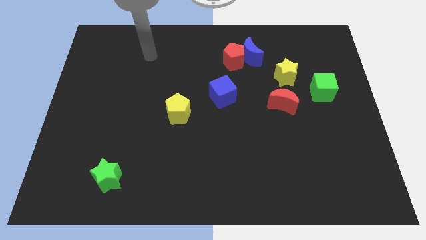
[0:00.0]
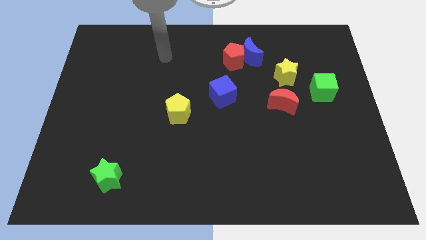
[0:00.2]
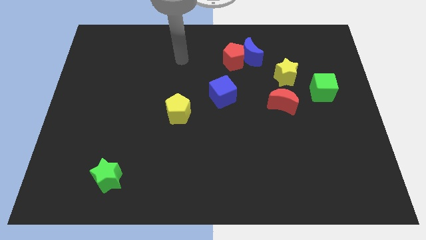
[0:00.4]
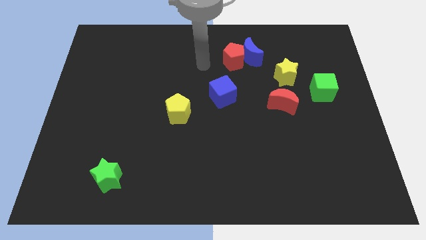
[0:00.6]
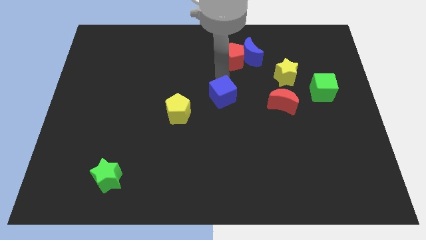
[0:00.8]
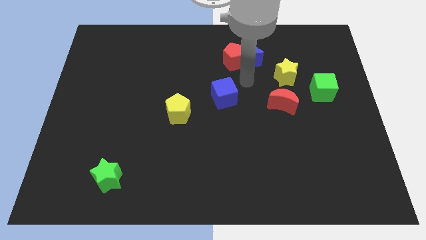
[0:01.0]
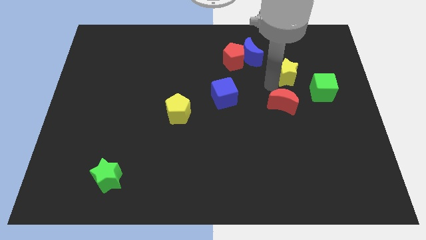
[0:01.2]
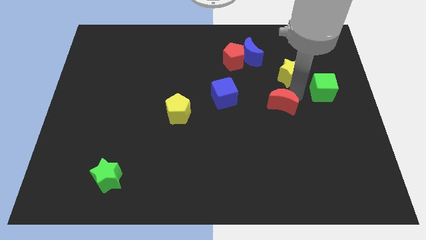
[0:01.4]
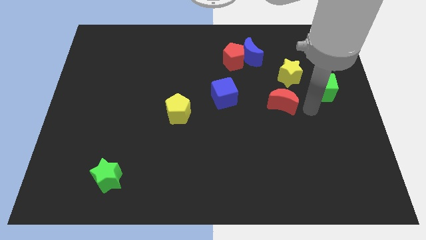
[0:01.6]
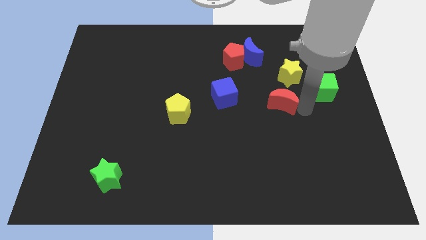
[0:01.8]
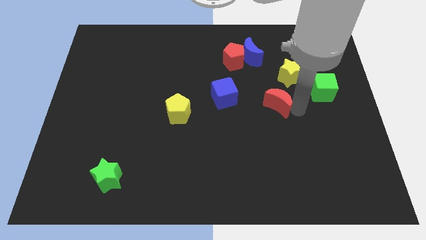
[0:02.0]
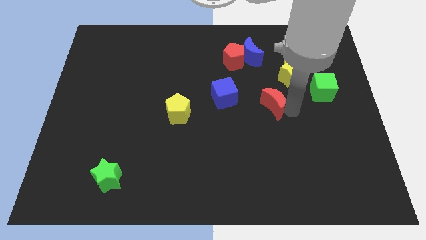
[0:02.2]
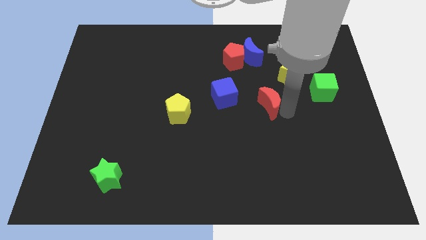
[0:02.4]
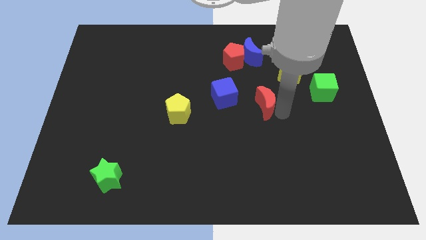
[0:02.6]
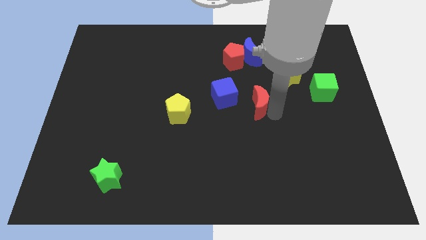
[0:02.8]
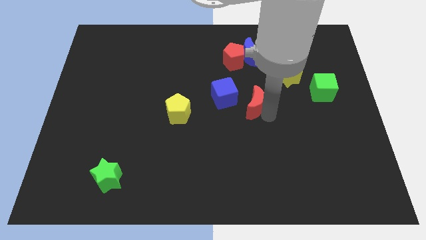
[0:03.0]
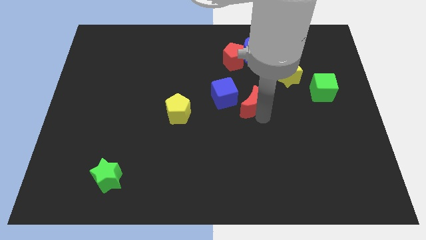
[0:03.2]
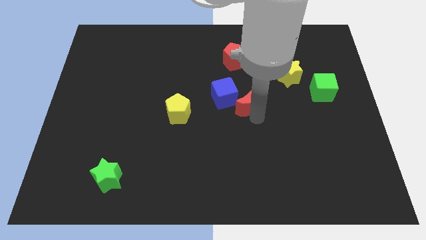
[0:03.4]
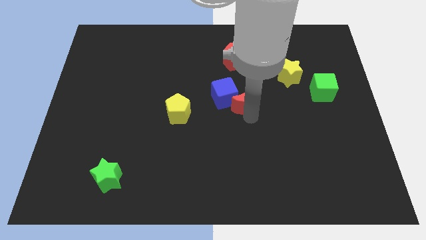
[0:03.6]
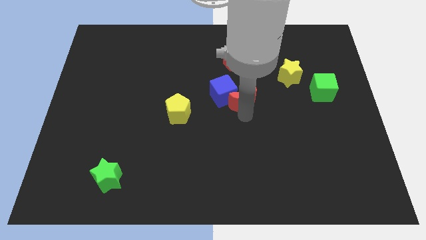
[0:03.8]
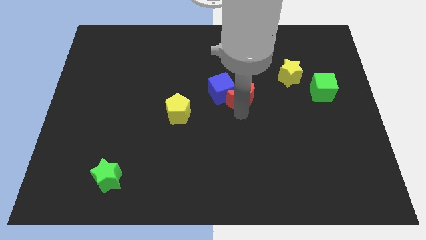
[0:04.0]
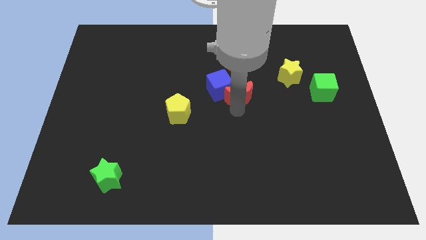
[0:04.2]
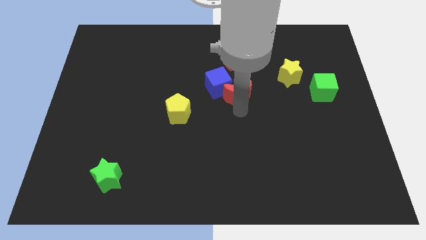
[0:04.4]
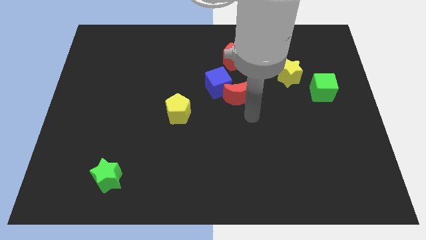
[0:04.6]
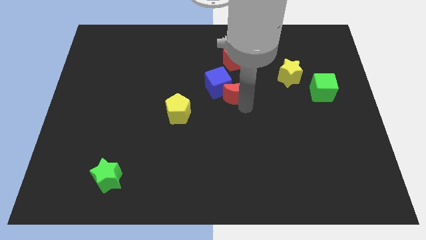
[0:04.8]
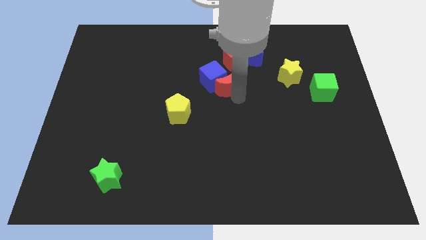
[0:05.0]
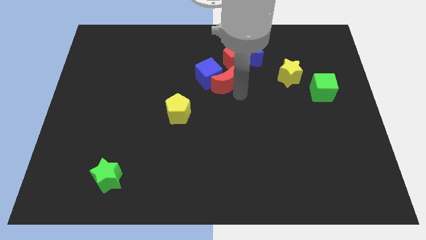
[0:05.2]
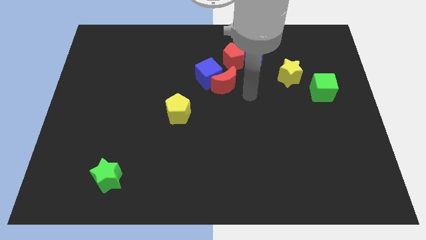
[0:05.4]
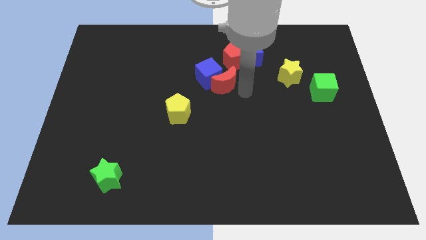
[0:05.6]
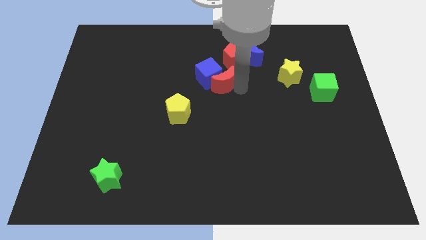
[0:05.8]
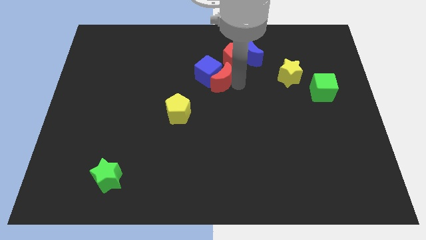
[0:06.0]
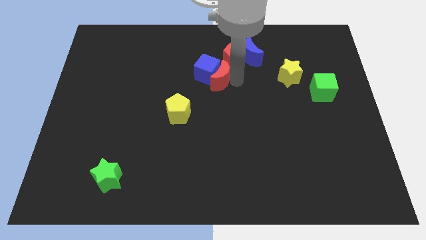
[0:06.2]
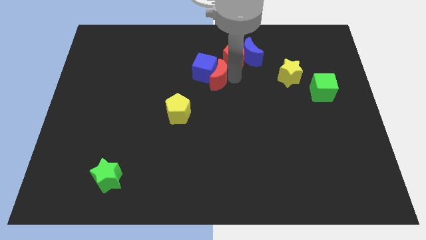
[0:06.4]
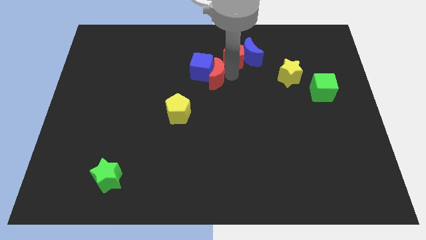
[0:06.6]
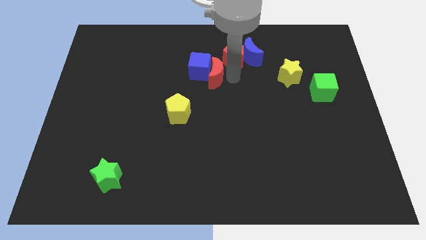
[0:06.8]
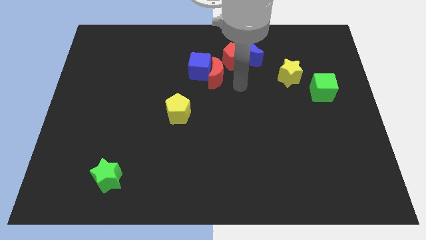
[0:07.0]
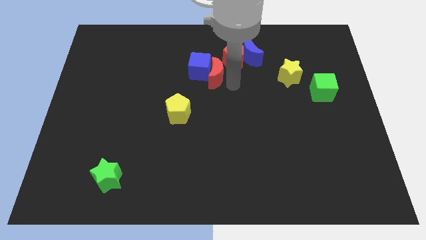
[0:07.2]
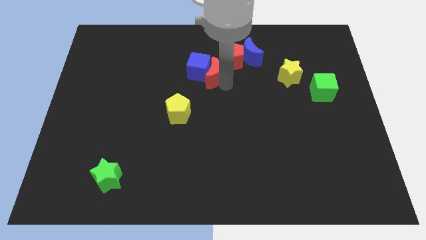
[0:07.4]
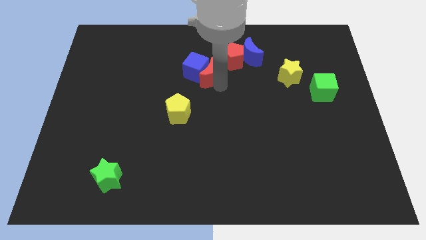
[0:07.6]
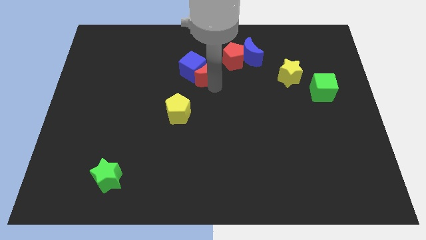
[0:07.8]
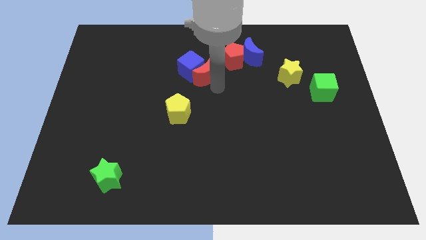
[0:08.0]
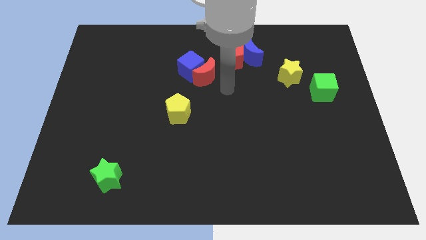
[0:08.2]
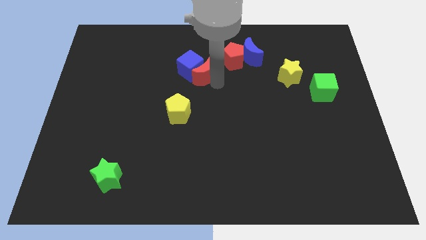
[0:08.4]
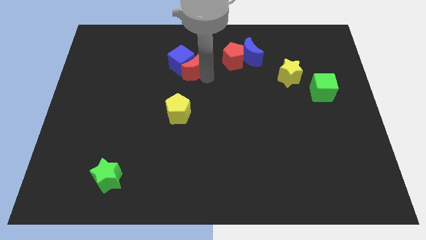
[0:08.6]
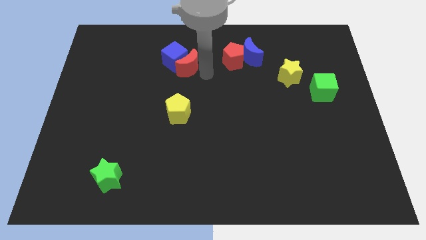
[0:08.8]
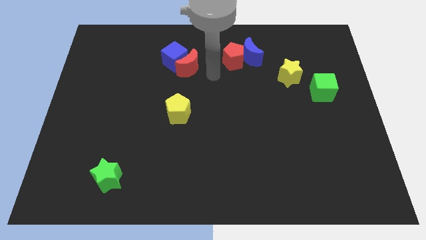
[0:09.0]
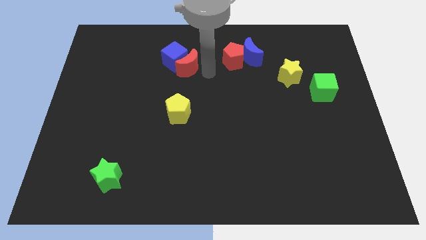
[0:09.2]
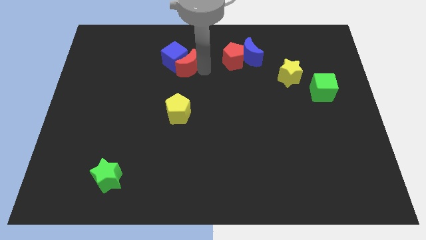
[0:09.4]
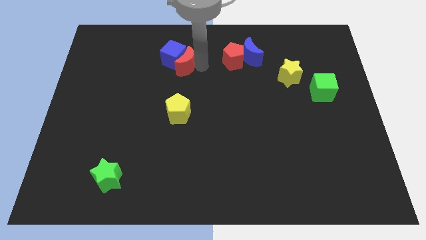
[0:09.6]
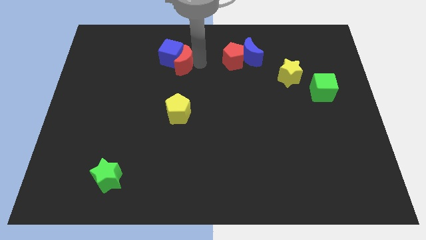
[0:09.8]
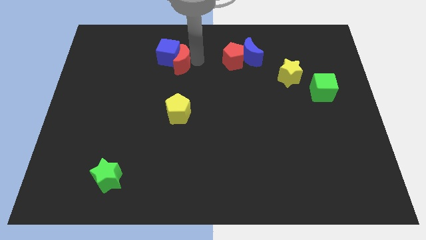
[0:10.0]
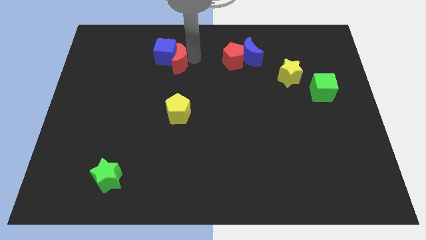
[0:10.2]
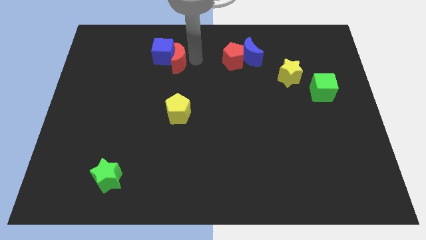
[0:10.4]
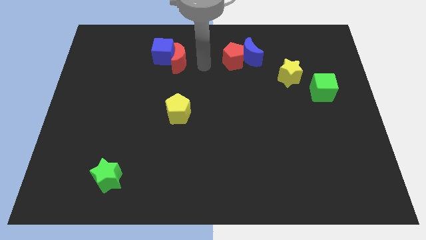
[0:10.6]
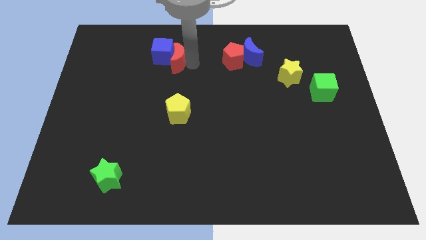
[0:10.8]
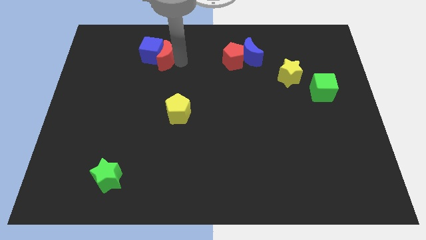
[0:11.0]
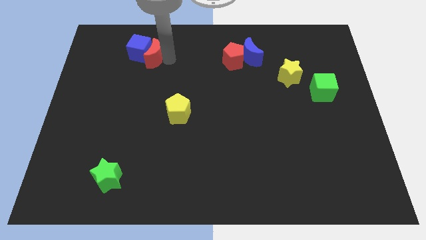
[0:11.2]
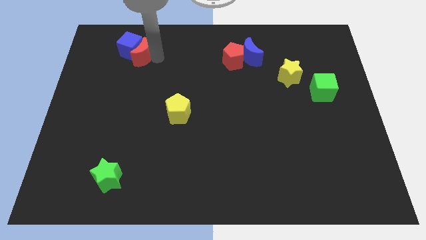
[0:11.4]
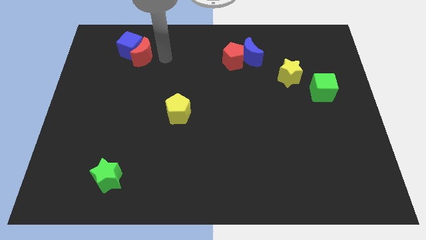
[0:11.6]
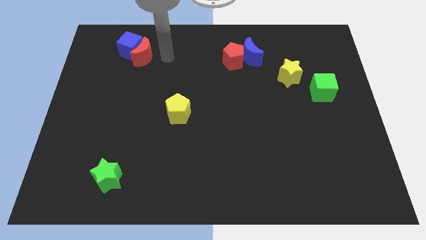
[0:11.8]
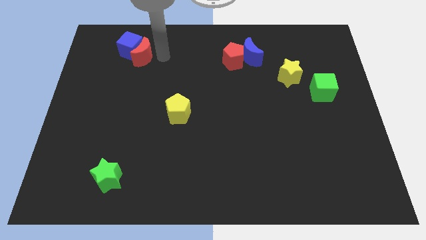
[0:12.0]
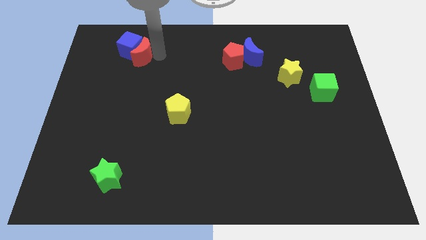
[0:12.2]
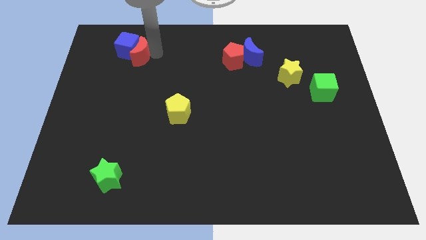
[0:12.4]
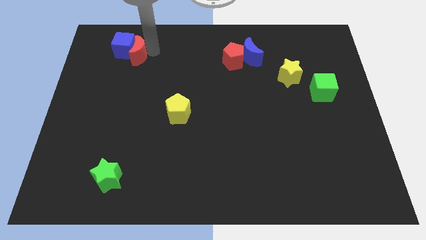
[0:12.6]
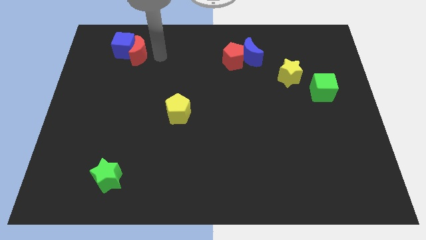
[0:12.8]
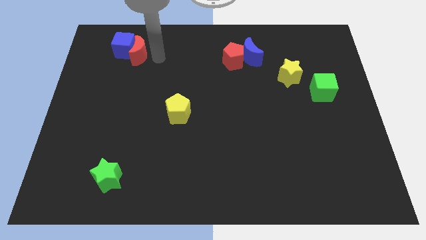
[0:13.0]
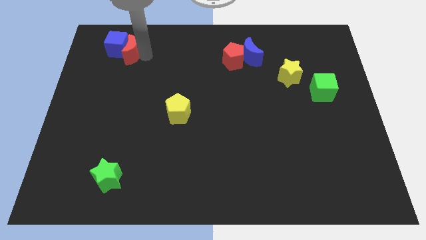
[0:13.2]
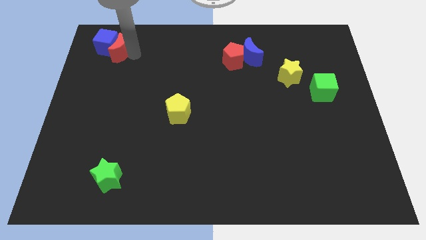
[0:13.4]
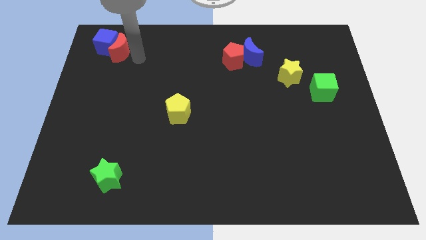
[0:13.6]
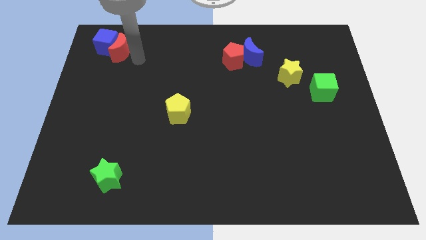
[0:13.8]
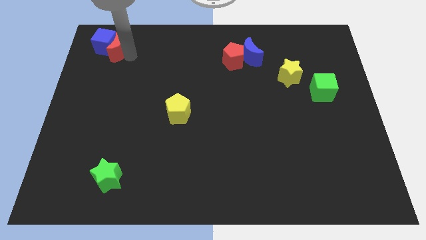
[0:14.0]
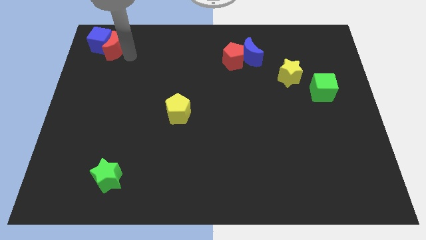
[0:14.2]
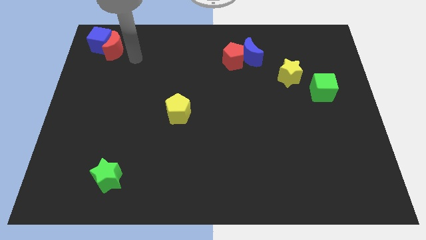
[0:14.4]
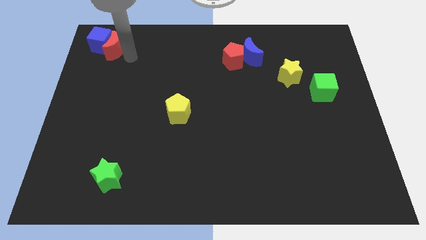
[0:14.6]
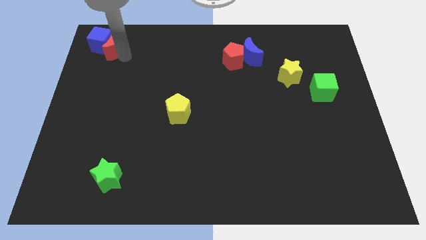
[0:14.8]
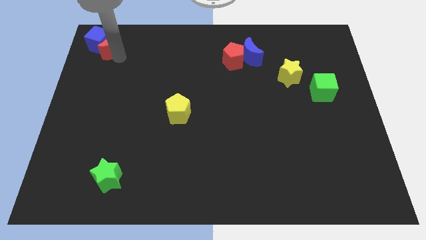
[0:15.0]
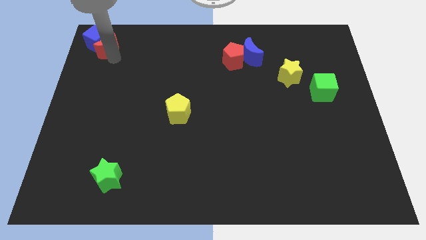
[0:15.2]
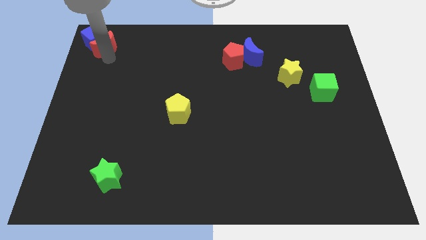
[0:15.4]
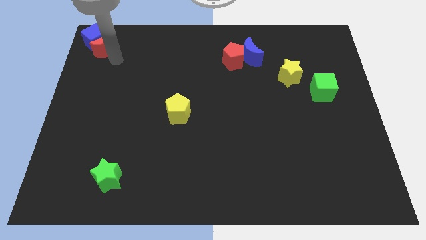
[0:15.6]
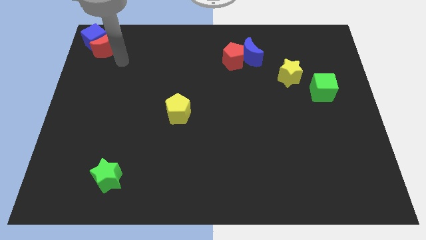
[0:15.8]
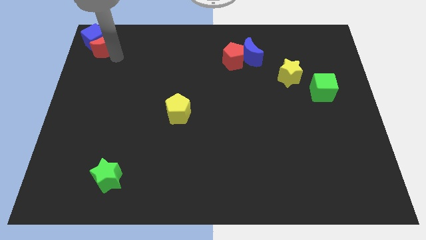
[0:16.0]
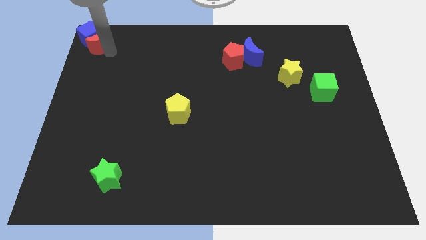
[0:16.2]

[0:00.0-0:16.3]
slide the red moon to the upper left corner
